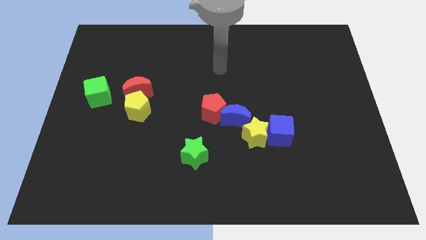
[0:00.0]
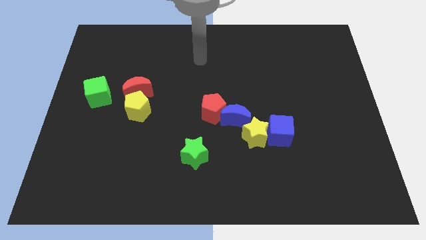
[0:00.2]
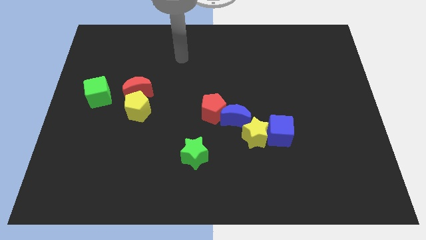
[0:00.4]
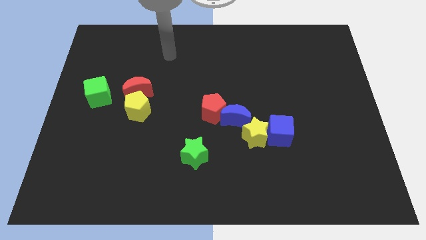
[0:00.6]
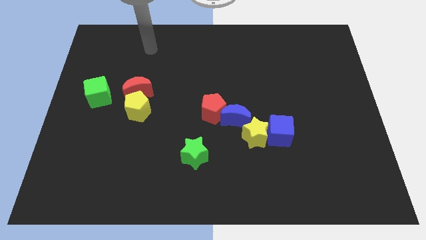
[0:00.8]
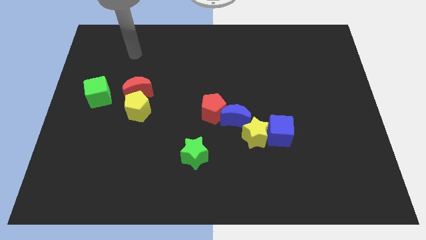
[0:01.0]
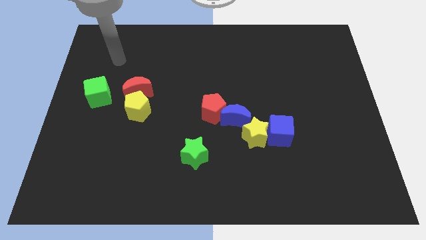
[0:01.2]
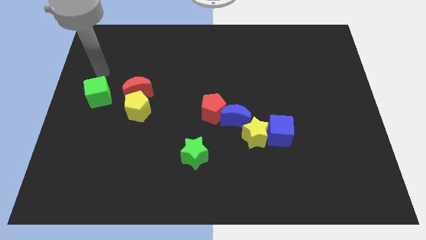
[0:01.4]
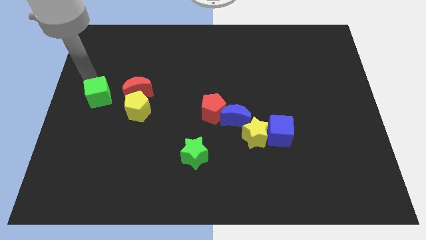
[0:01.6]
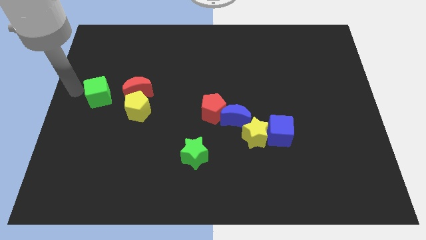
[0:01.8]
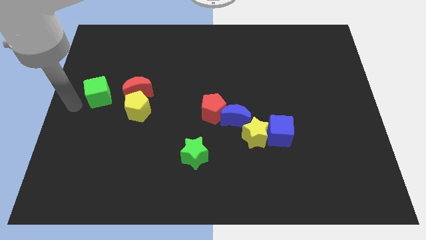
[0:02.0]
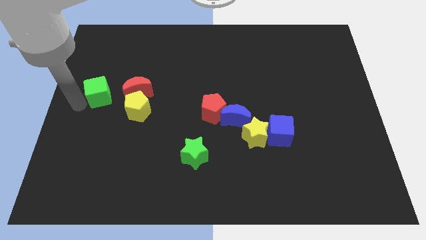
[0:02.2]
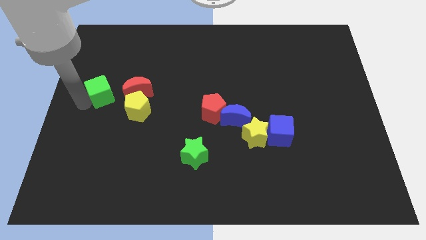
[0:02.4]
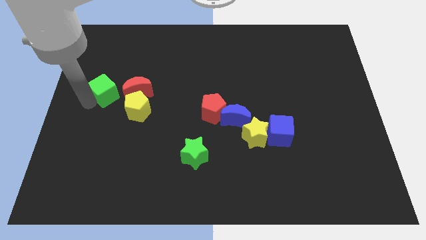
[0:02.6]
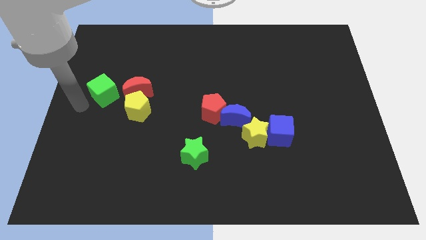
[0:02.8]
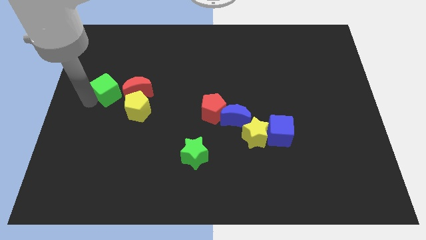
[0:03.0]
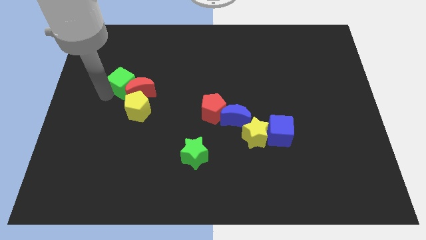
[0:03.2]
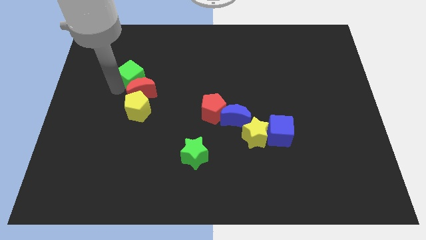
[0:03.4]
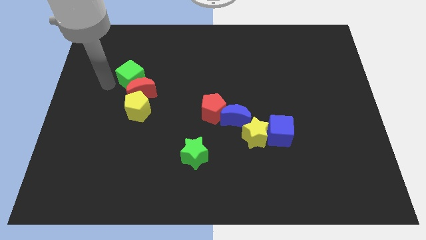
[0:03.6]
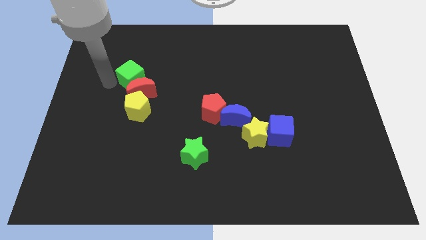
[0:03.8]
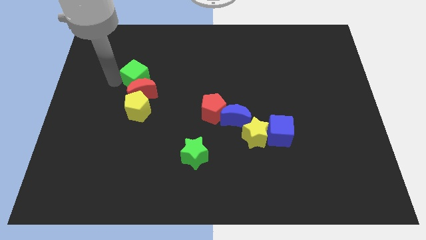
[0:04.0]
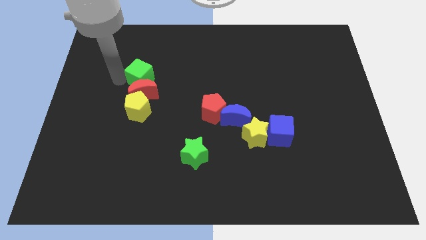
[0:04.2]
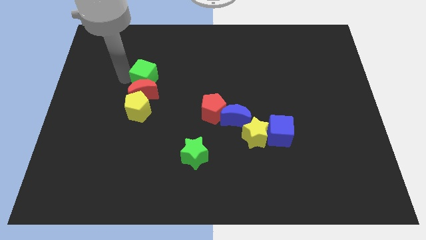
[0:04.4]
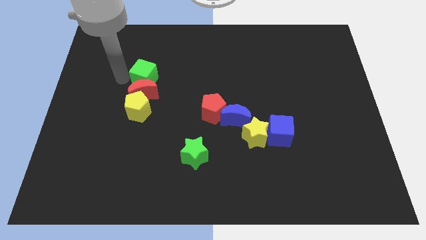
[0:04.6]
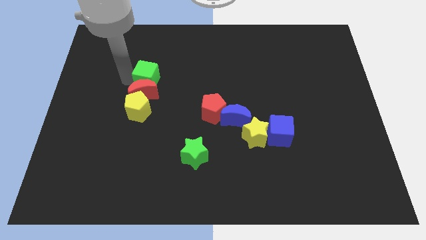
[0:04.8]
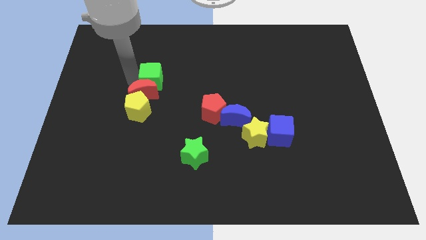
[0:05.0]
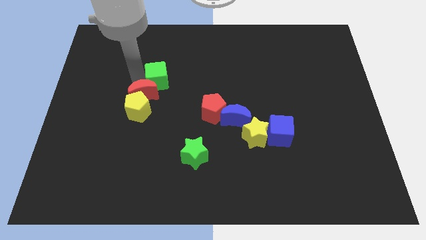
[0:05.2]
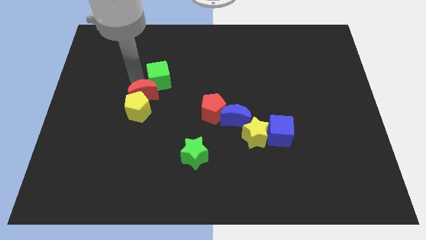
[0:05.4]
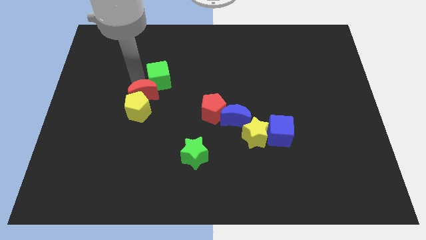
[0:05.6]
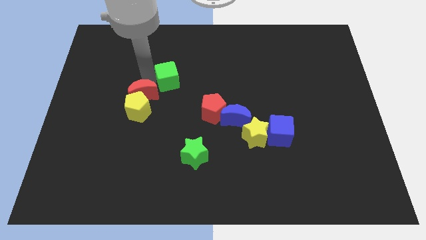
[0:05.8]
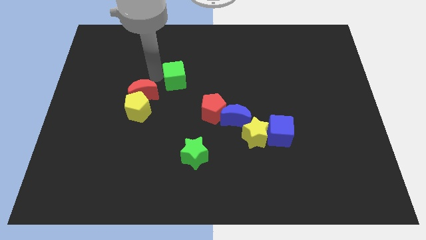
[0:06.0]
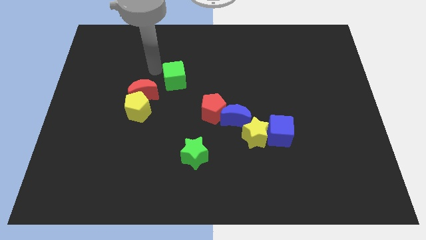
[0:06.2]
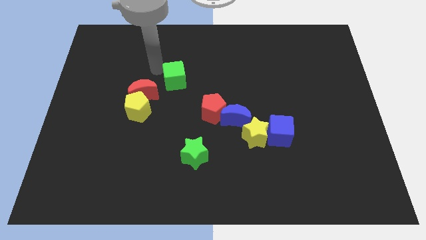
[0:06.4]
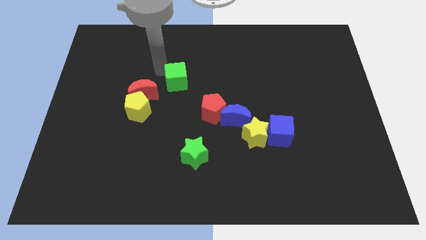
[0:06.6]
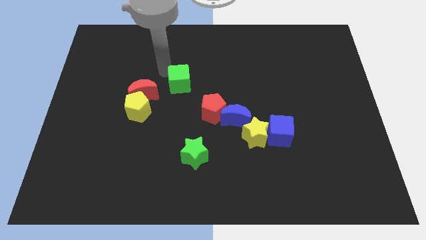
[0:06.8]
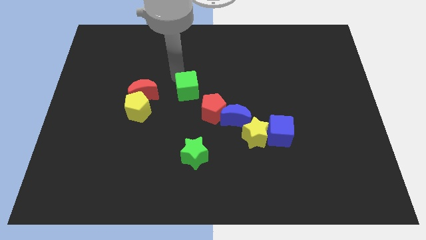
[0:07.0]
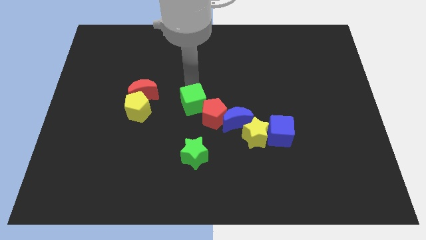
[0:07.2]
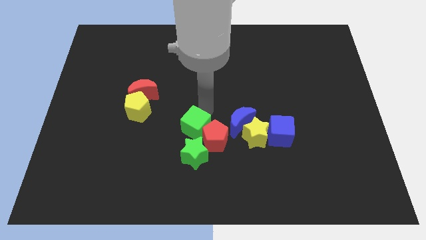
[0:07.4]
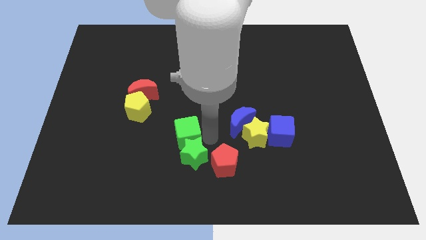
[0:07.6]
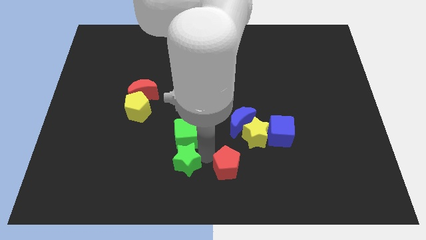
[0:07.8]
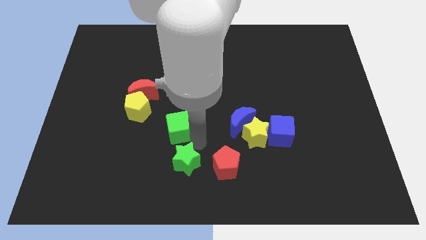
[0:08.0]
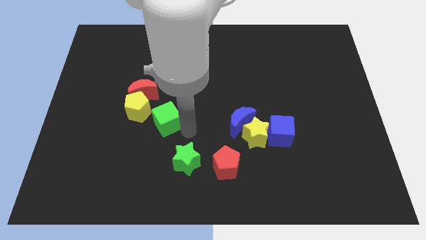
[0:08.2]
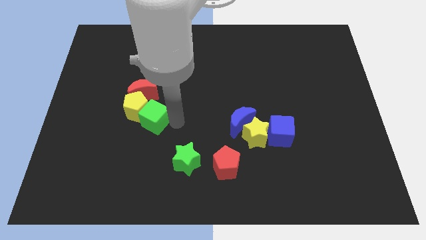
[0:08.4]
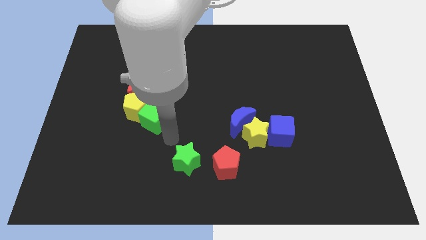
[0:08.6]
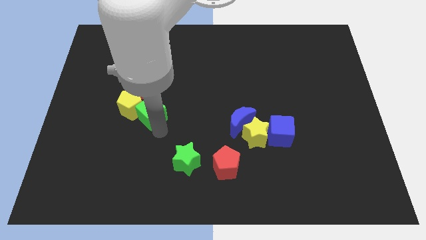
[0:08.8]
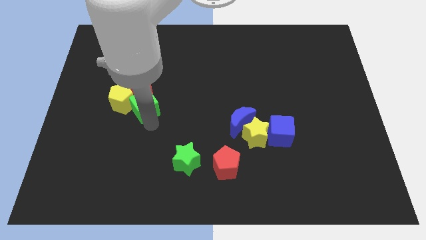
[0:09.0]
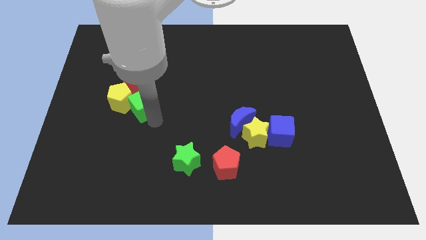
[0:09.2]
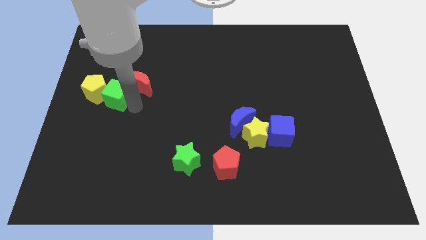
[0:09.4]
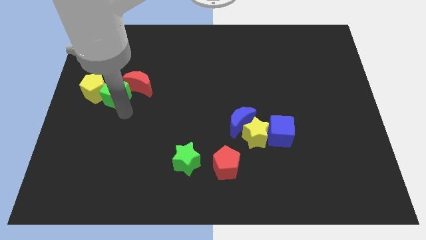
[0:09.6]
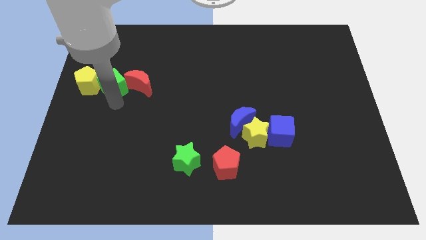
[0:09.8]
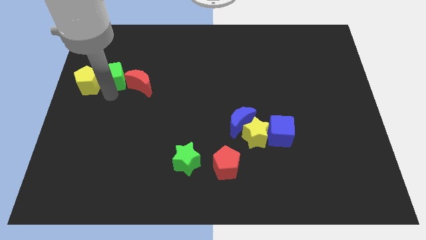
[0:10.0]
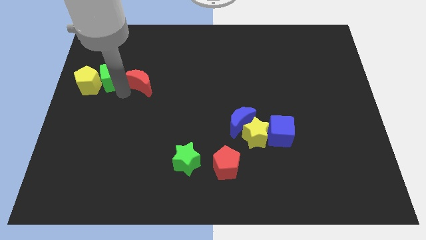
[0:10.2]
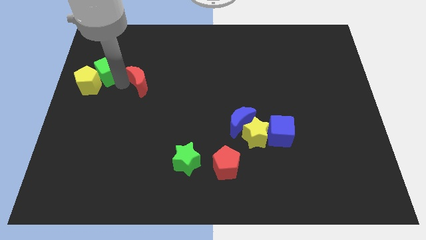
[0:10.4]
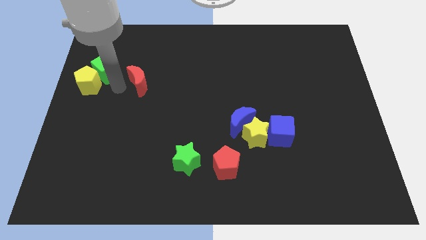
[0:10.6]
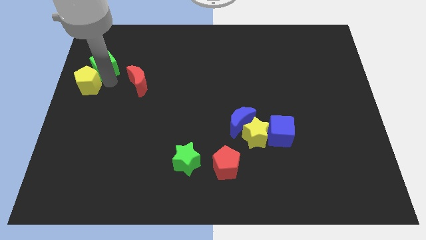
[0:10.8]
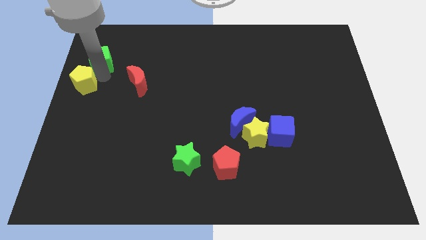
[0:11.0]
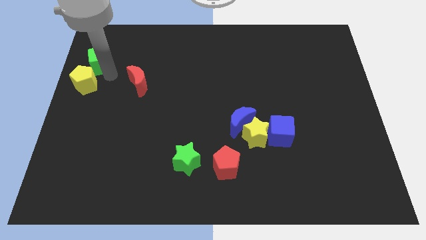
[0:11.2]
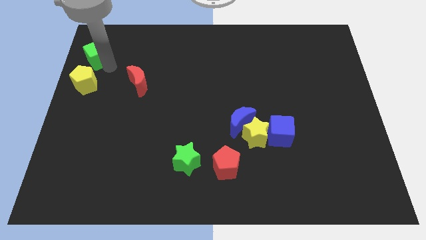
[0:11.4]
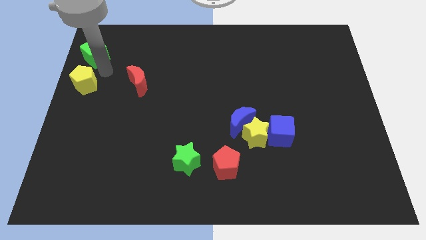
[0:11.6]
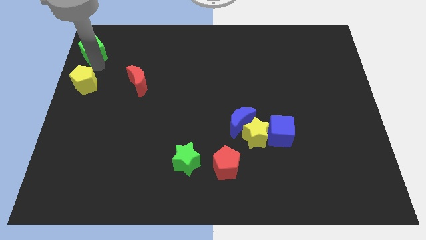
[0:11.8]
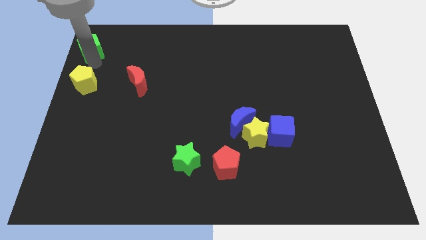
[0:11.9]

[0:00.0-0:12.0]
put the green cube to the upper left corner

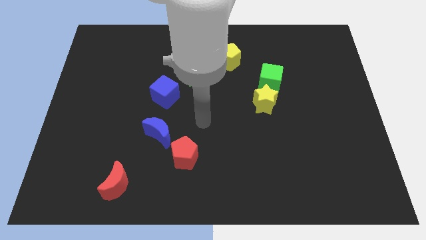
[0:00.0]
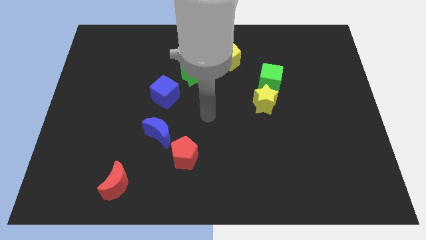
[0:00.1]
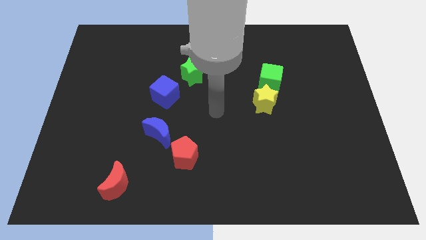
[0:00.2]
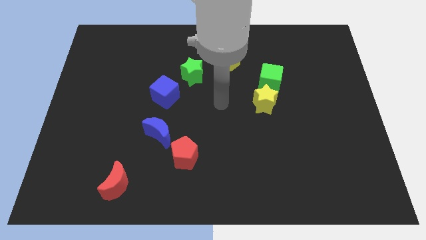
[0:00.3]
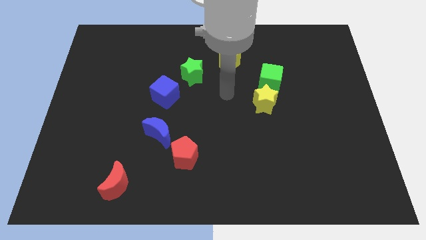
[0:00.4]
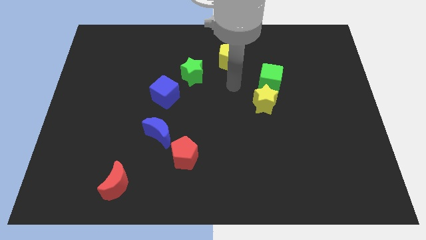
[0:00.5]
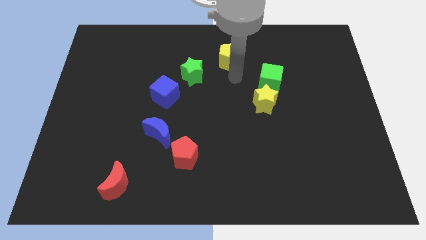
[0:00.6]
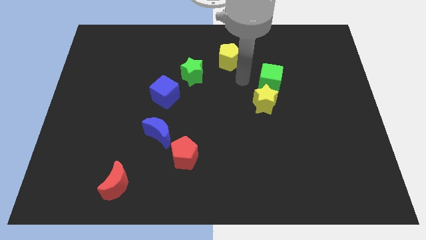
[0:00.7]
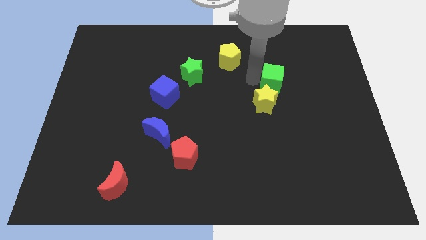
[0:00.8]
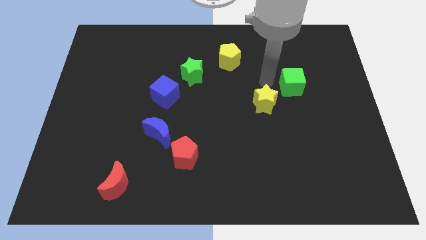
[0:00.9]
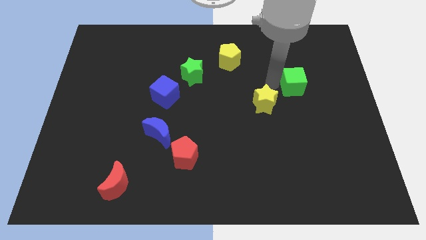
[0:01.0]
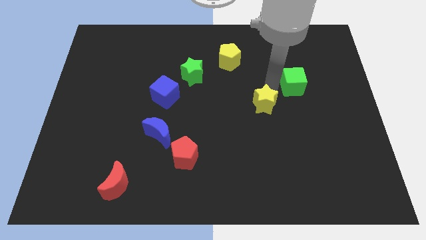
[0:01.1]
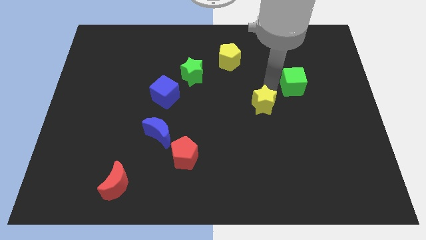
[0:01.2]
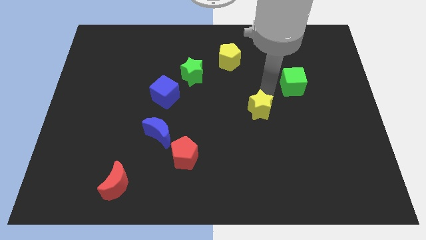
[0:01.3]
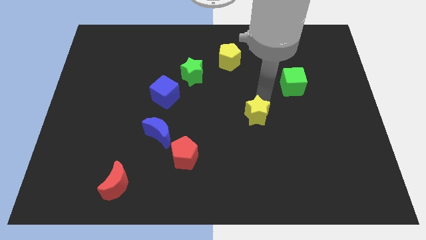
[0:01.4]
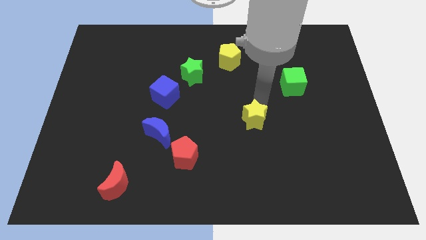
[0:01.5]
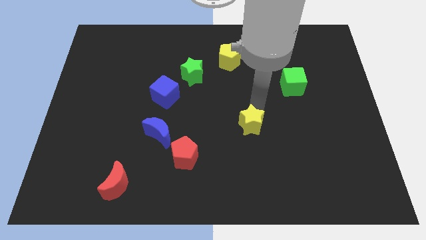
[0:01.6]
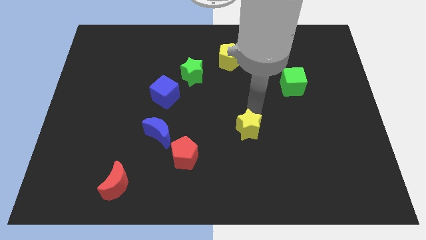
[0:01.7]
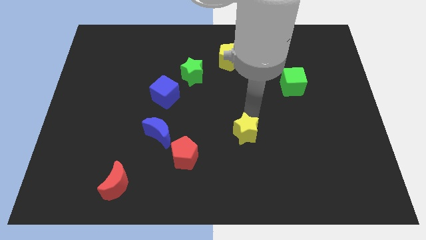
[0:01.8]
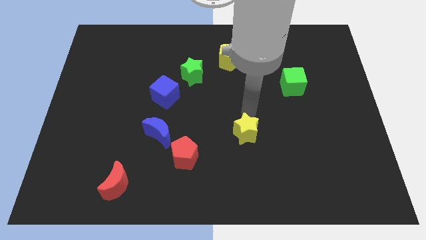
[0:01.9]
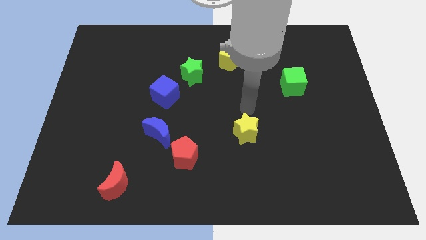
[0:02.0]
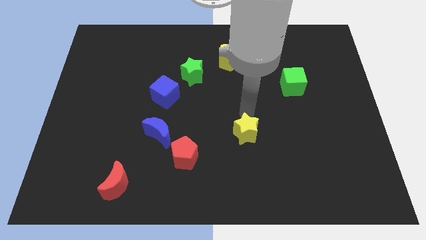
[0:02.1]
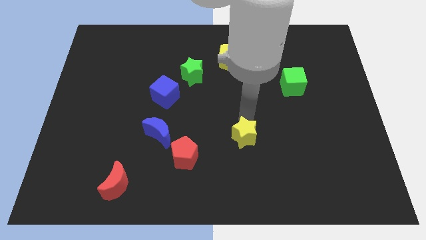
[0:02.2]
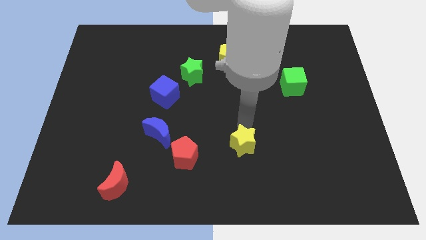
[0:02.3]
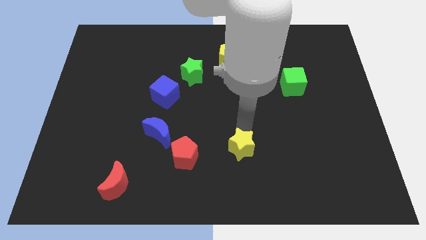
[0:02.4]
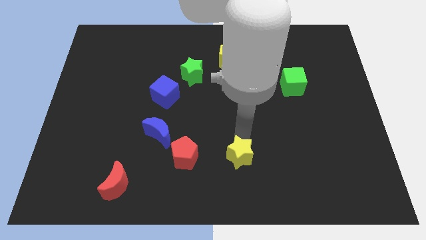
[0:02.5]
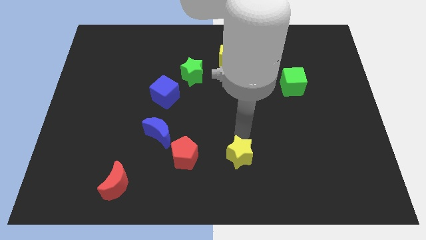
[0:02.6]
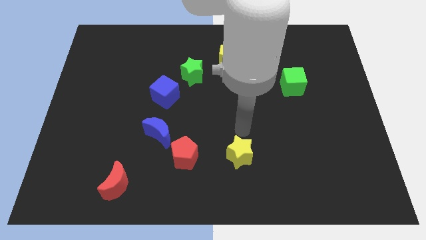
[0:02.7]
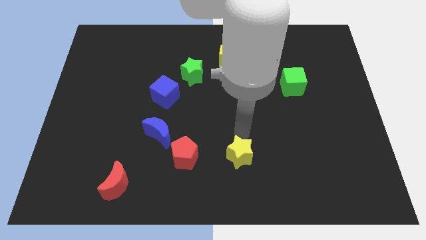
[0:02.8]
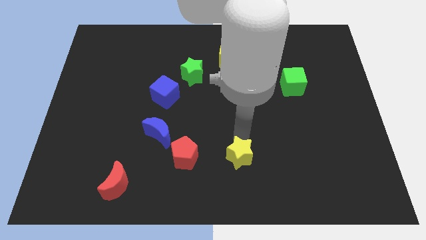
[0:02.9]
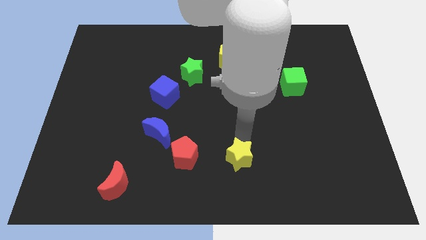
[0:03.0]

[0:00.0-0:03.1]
push the yellow star to the bottom side
